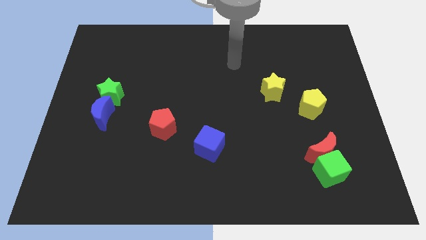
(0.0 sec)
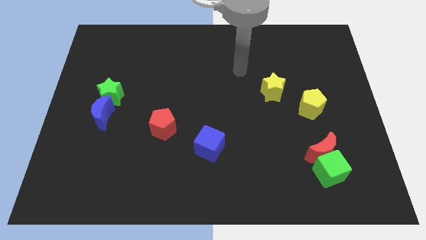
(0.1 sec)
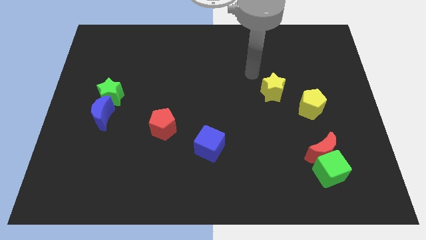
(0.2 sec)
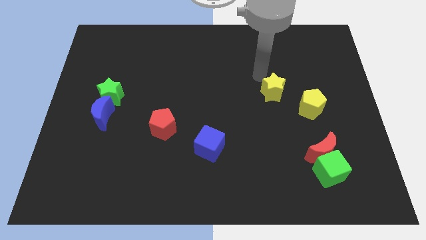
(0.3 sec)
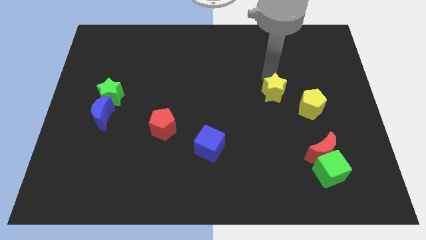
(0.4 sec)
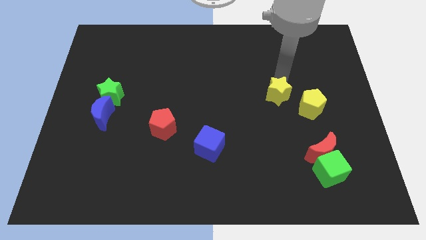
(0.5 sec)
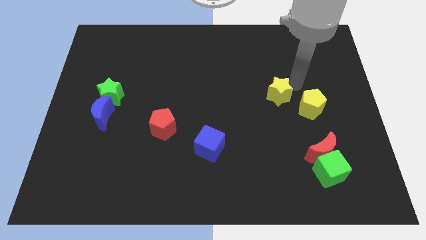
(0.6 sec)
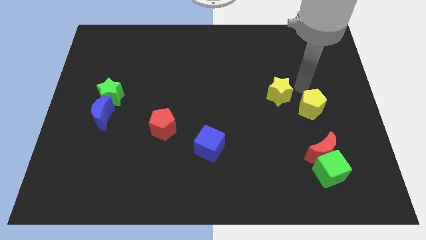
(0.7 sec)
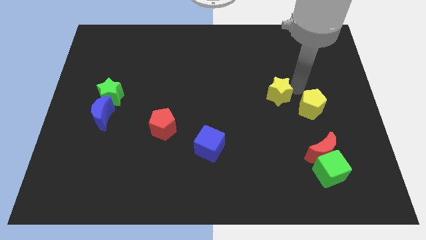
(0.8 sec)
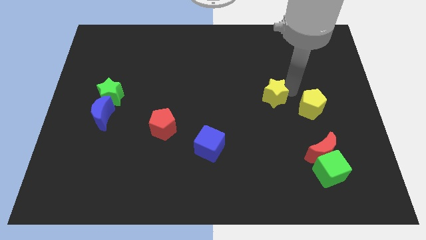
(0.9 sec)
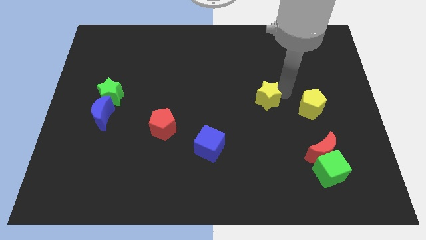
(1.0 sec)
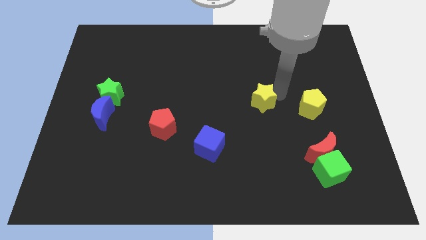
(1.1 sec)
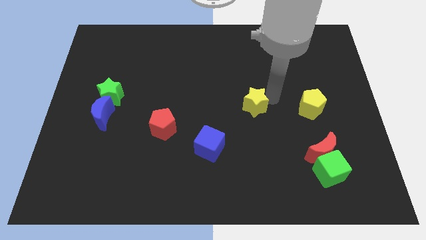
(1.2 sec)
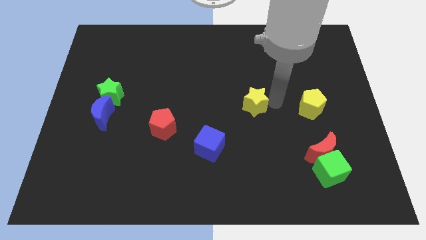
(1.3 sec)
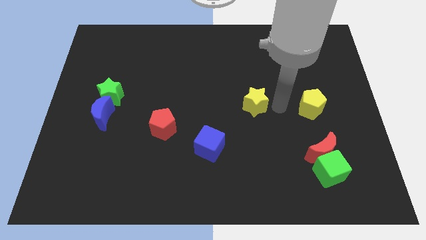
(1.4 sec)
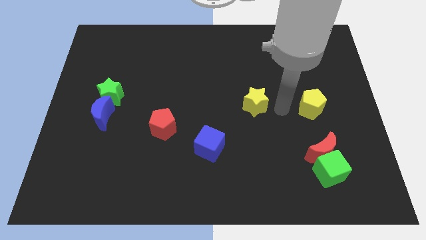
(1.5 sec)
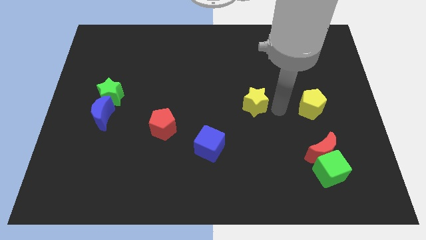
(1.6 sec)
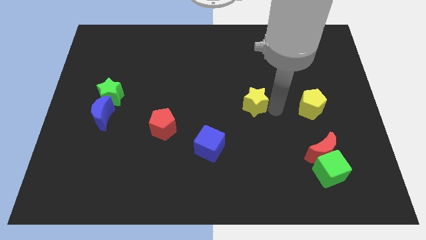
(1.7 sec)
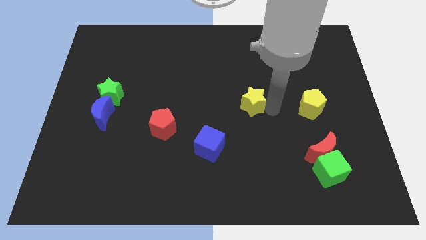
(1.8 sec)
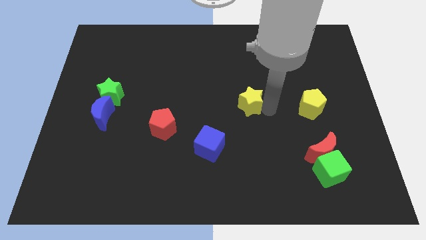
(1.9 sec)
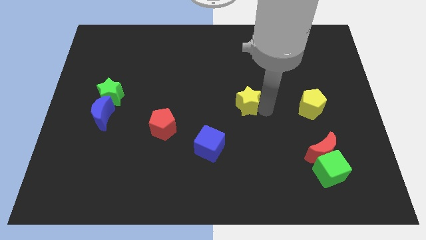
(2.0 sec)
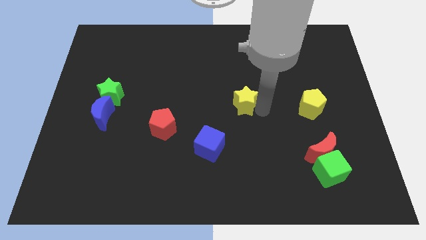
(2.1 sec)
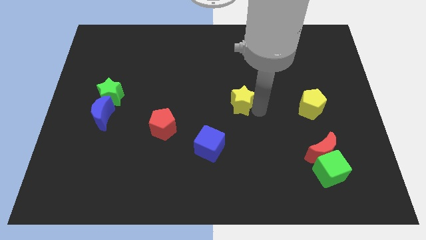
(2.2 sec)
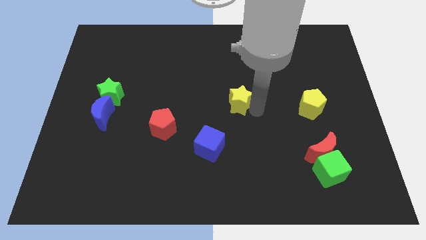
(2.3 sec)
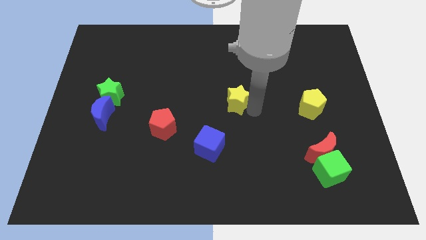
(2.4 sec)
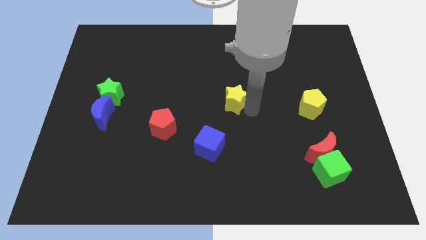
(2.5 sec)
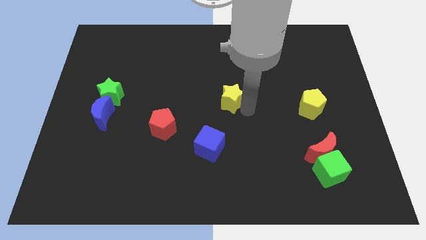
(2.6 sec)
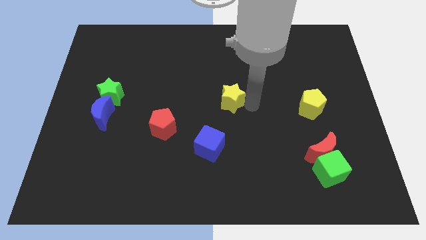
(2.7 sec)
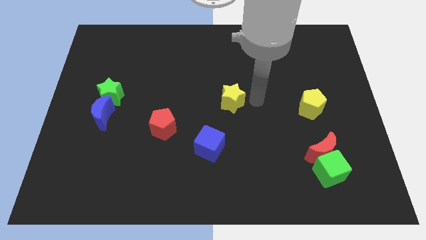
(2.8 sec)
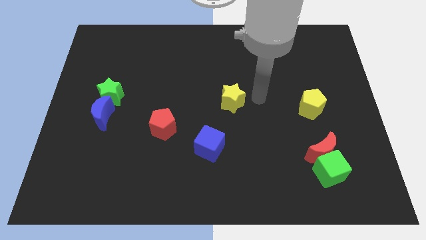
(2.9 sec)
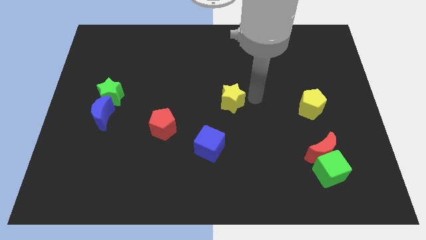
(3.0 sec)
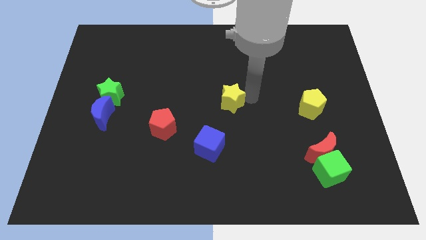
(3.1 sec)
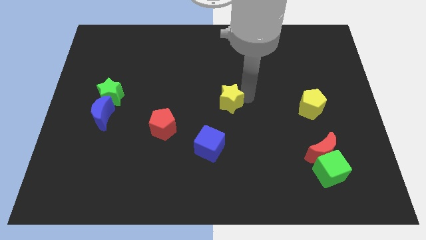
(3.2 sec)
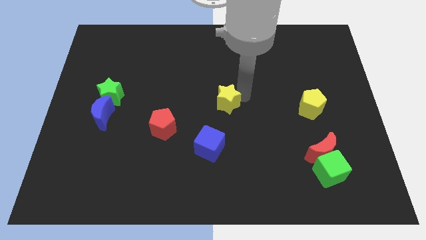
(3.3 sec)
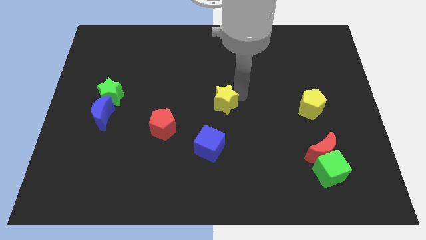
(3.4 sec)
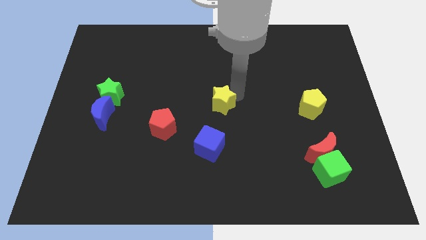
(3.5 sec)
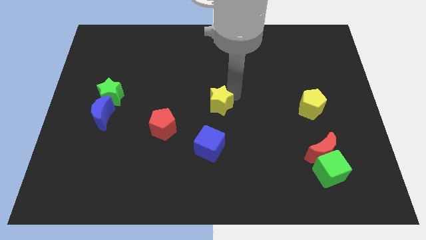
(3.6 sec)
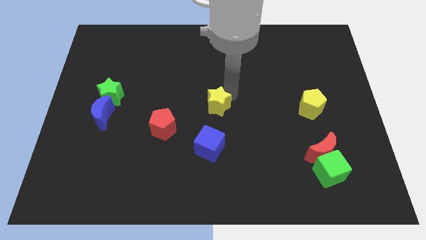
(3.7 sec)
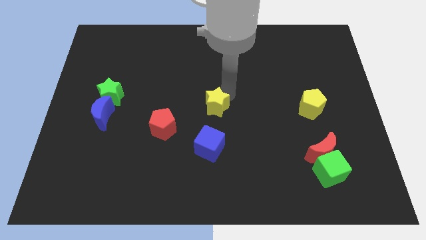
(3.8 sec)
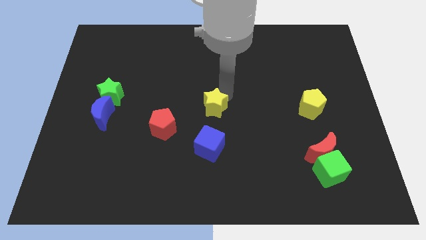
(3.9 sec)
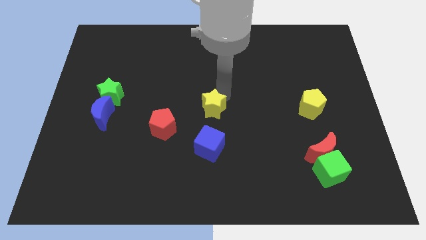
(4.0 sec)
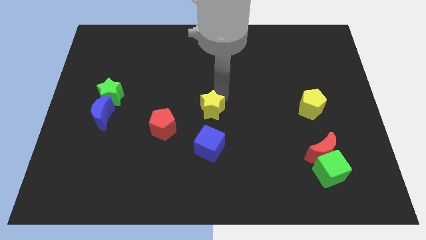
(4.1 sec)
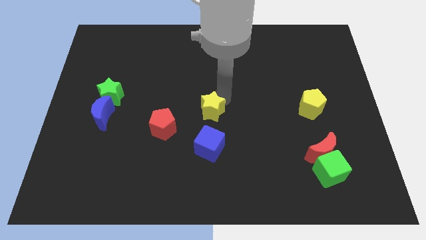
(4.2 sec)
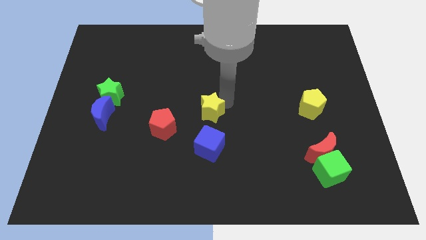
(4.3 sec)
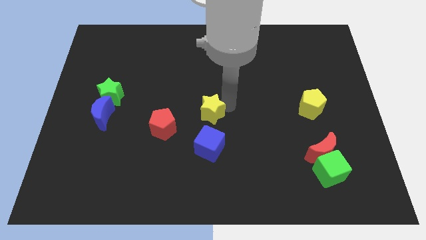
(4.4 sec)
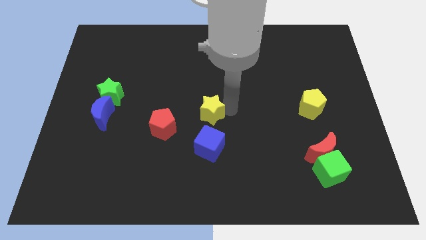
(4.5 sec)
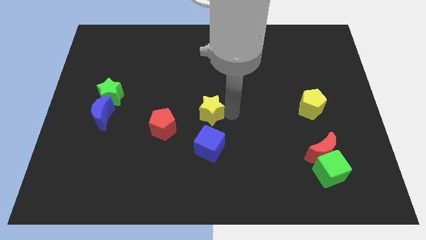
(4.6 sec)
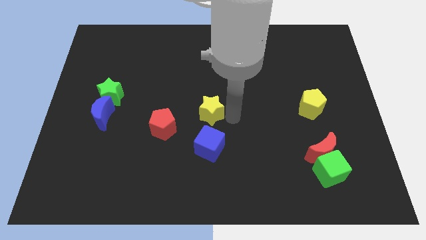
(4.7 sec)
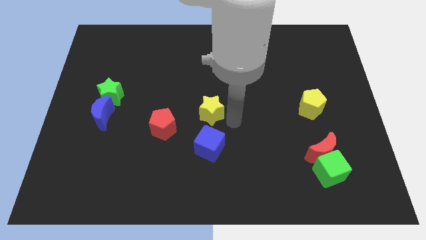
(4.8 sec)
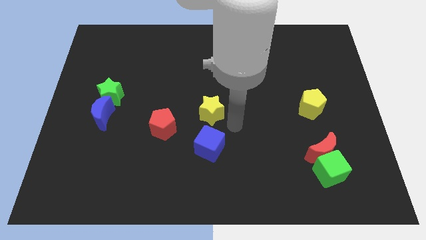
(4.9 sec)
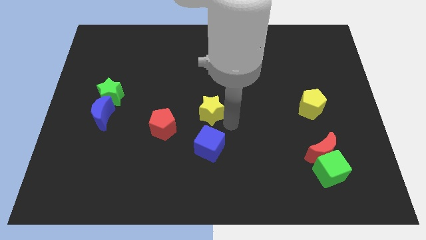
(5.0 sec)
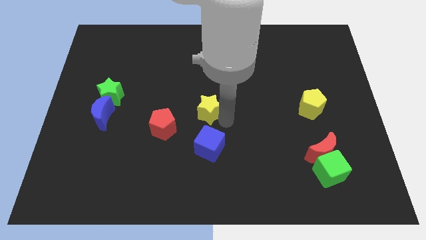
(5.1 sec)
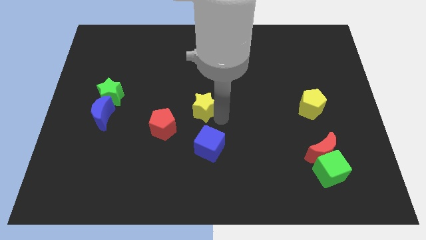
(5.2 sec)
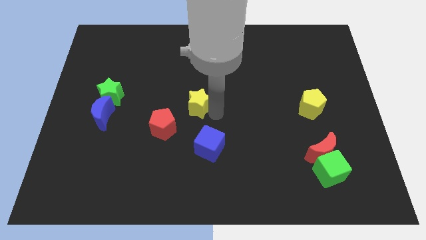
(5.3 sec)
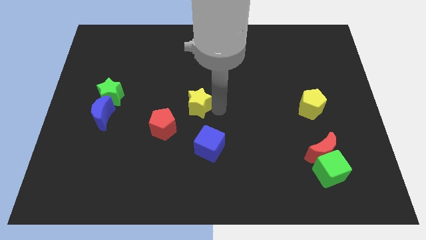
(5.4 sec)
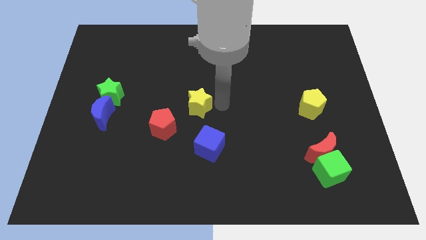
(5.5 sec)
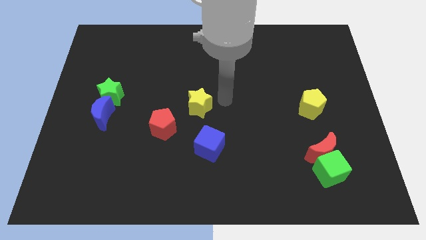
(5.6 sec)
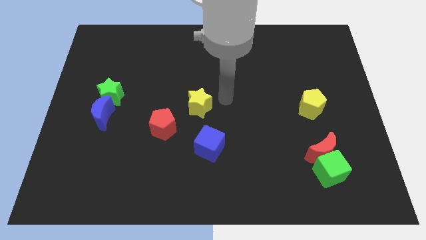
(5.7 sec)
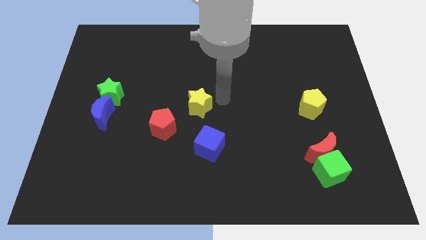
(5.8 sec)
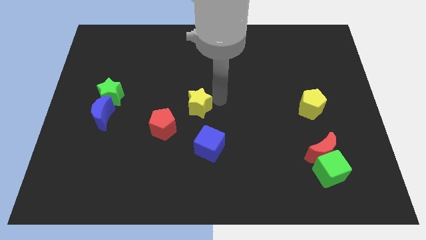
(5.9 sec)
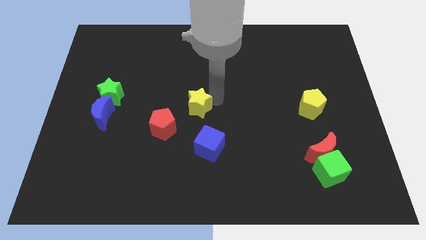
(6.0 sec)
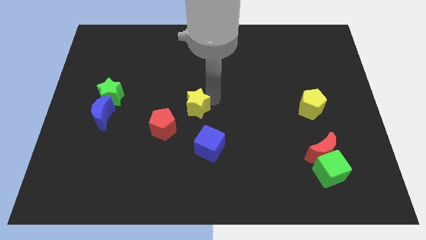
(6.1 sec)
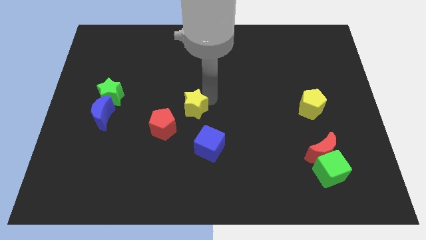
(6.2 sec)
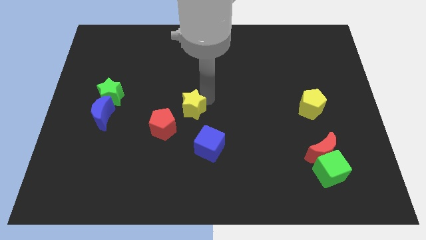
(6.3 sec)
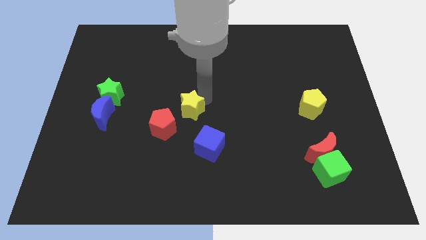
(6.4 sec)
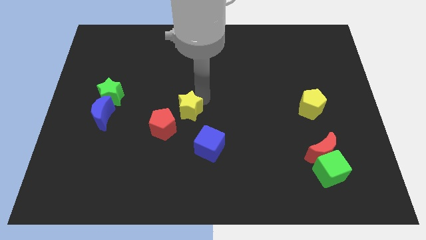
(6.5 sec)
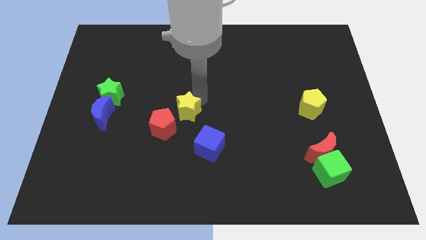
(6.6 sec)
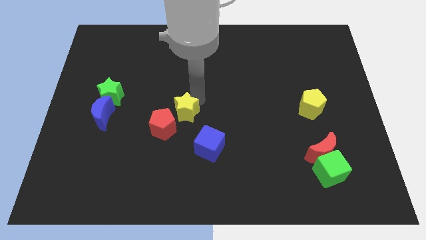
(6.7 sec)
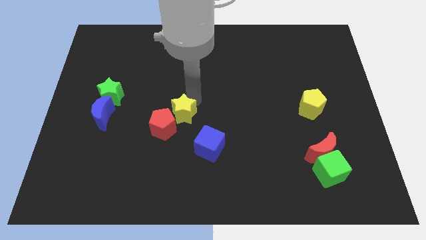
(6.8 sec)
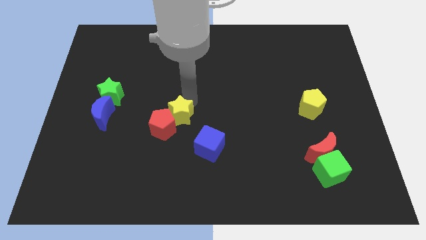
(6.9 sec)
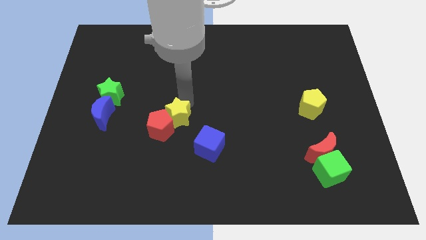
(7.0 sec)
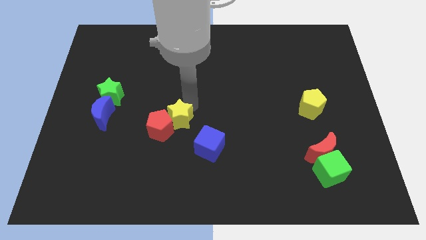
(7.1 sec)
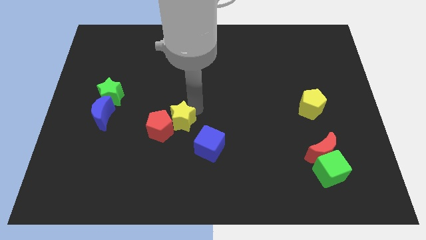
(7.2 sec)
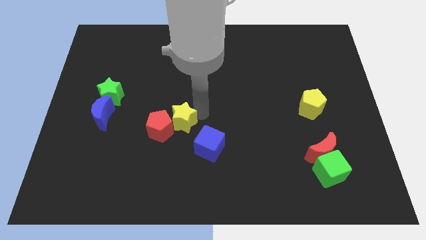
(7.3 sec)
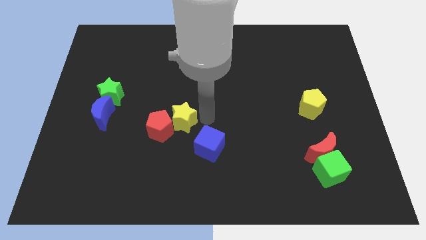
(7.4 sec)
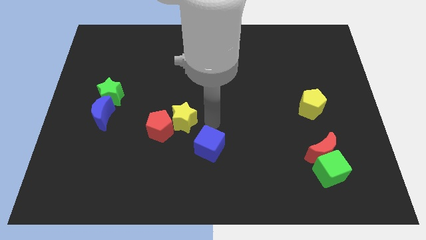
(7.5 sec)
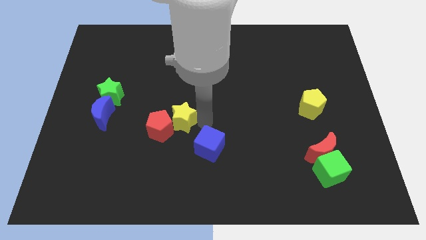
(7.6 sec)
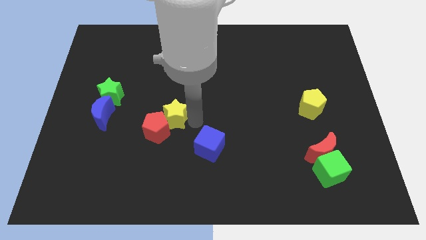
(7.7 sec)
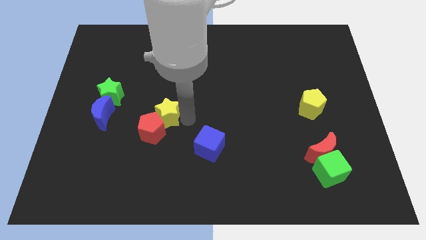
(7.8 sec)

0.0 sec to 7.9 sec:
put the yellow star to the right of the blue moon
